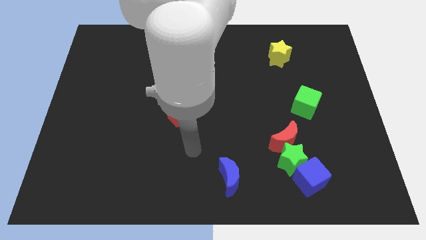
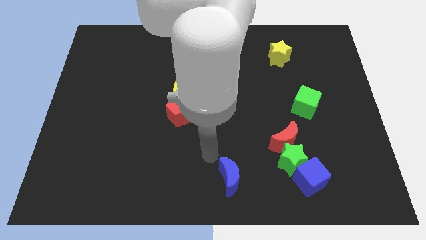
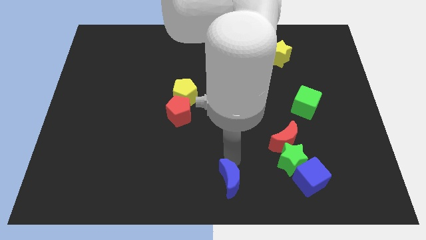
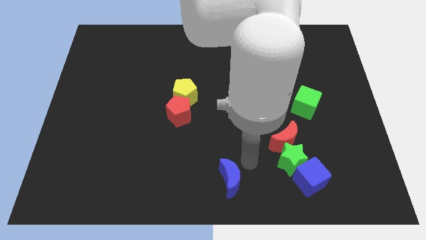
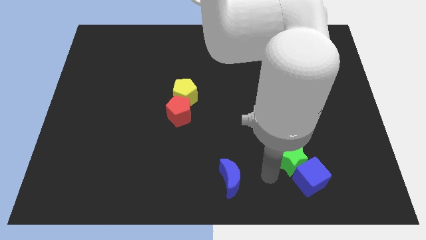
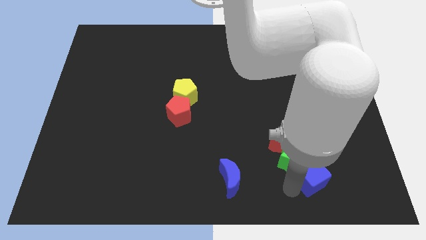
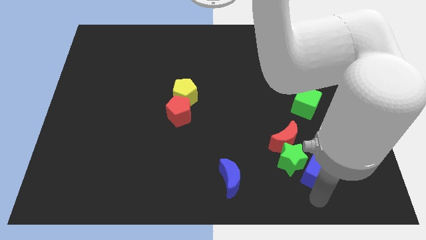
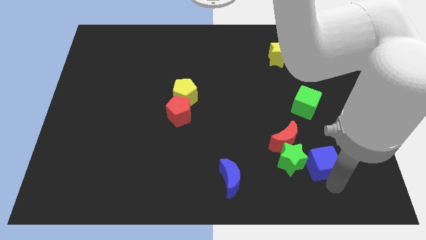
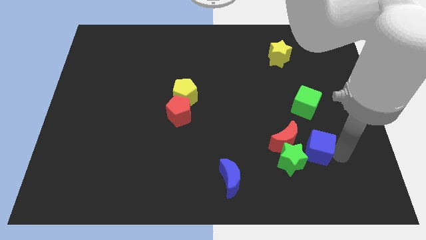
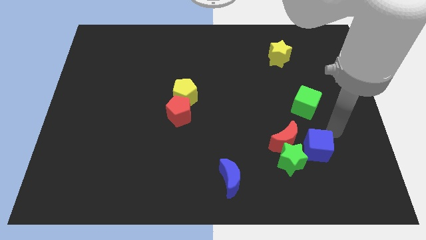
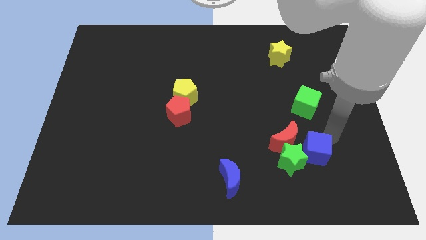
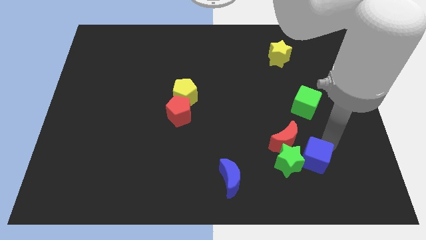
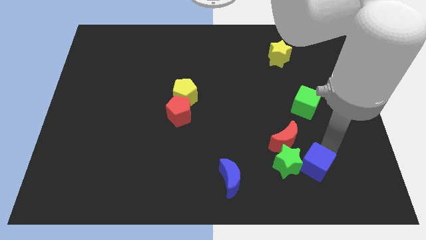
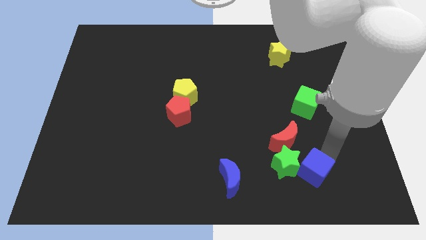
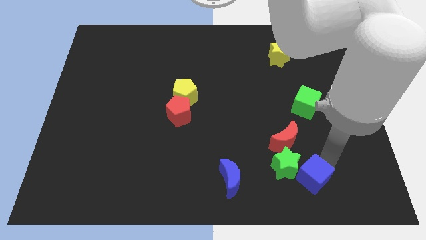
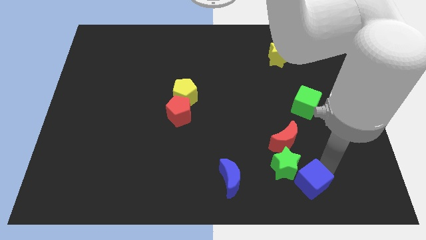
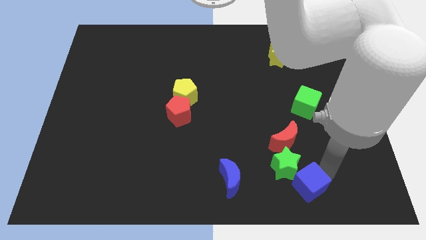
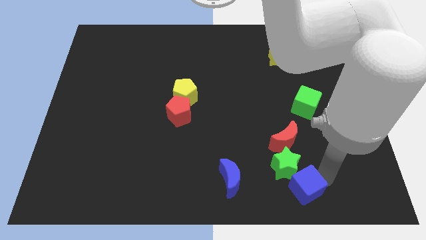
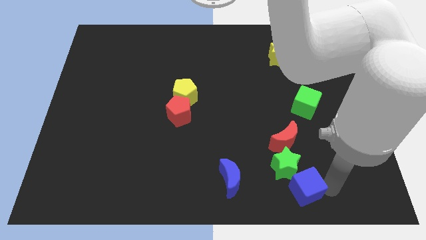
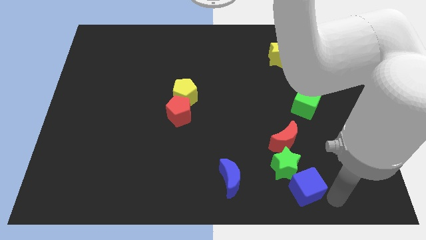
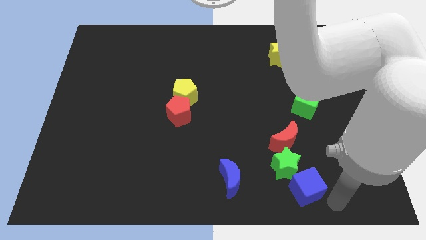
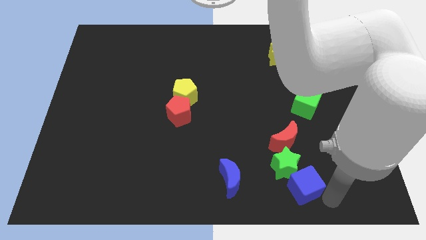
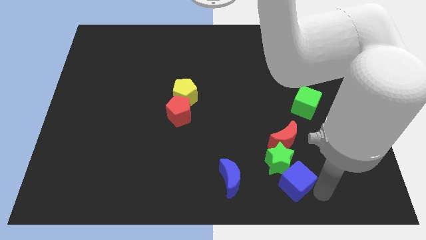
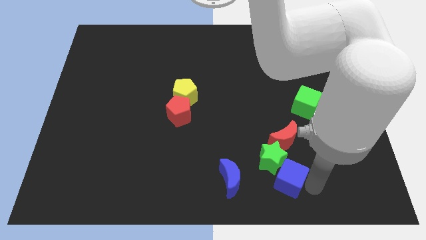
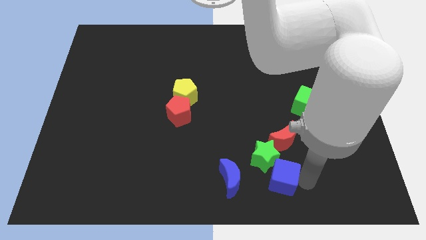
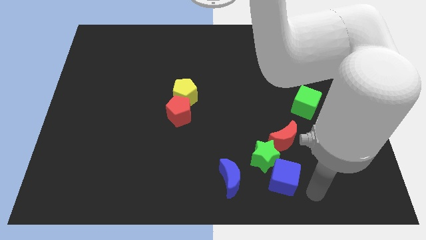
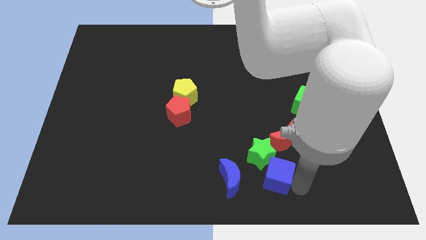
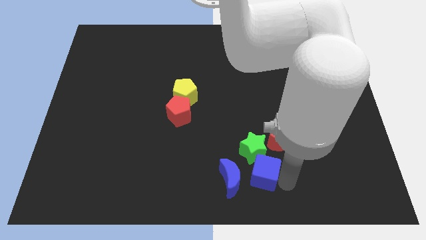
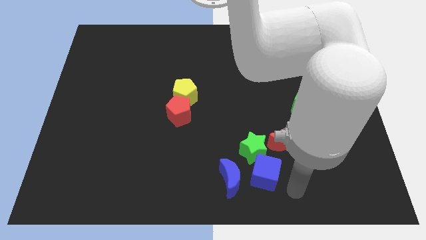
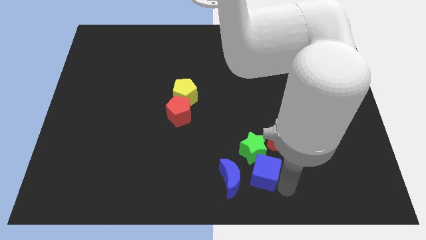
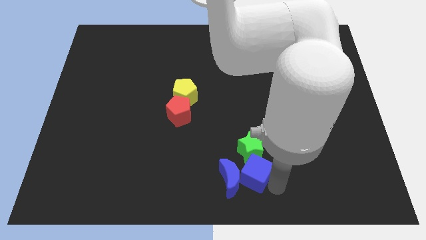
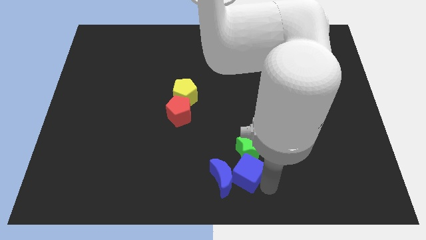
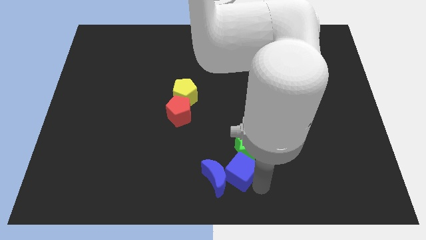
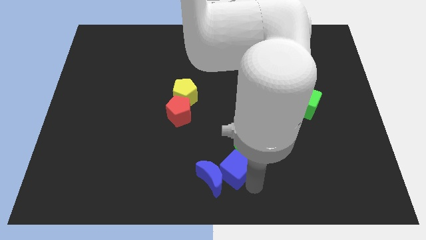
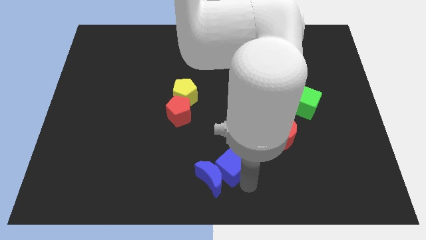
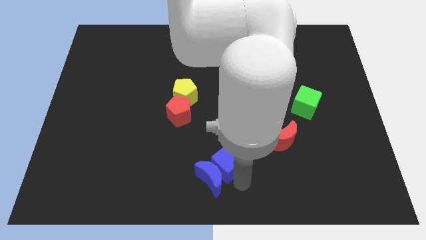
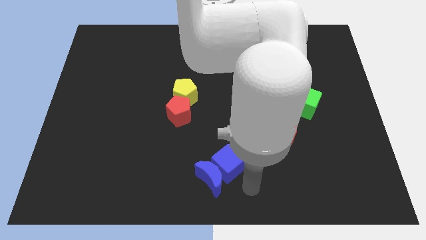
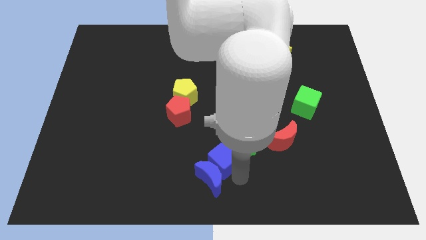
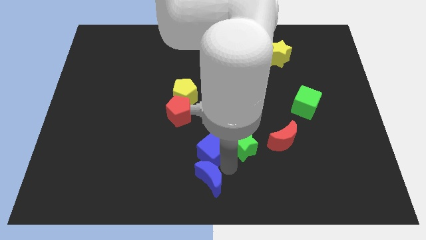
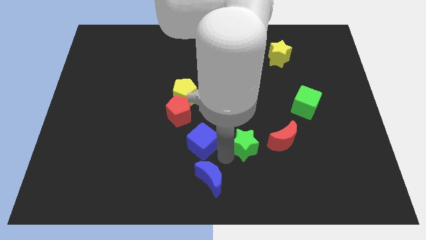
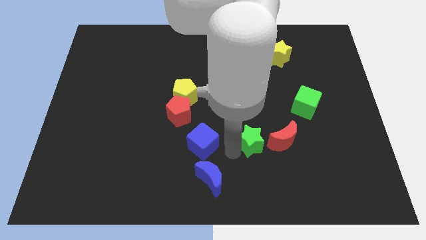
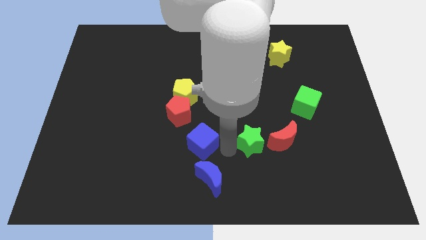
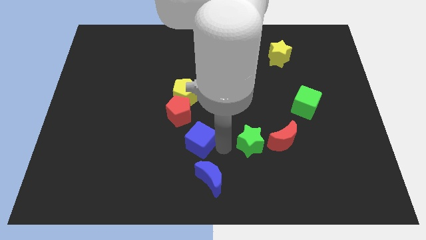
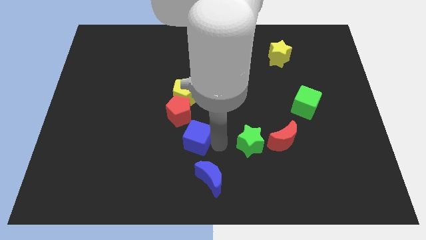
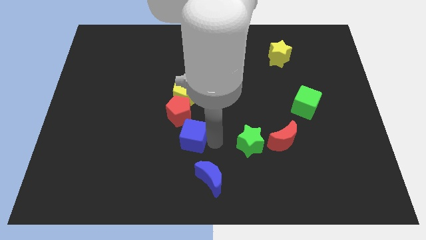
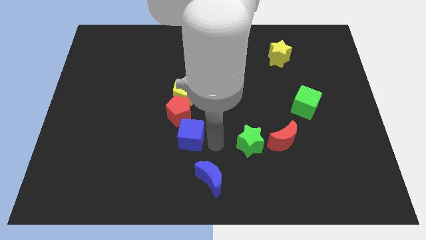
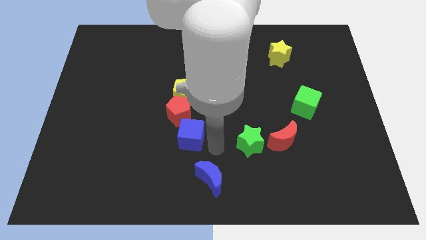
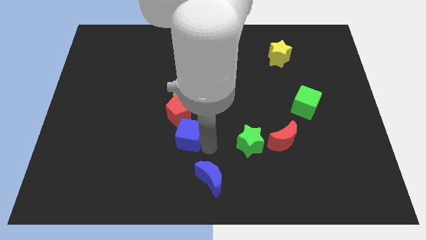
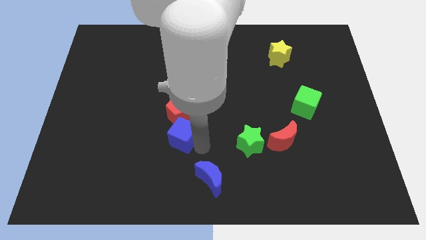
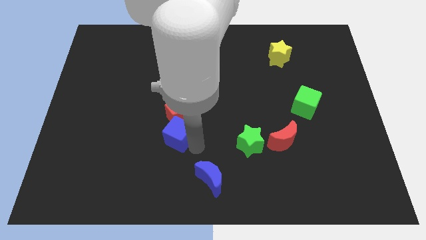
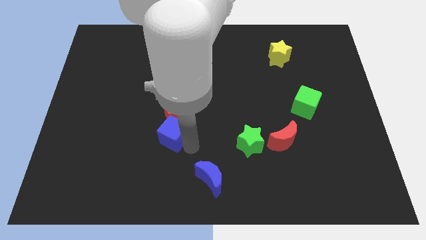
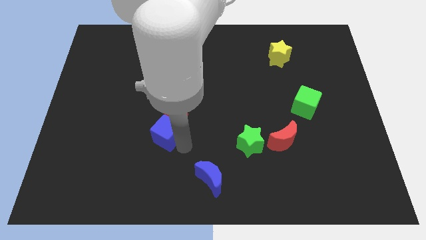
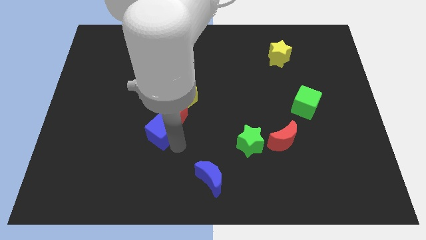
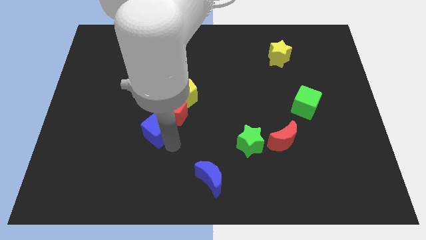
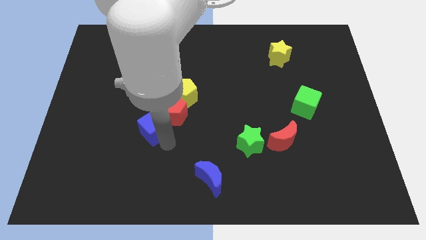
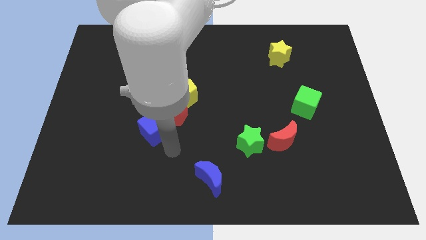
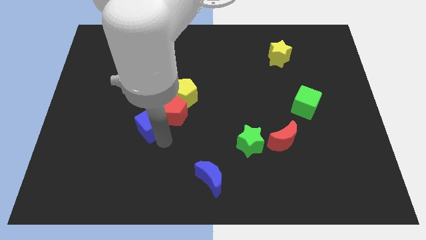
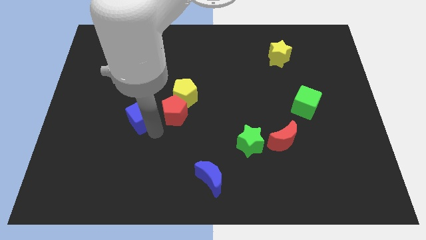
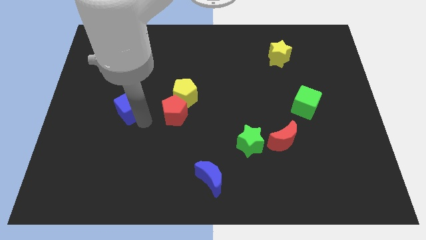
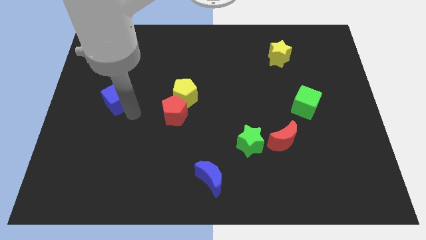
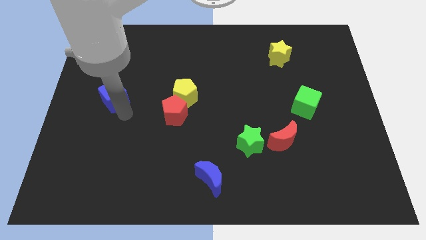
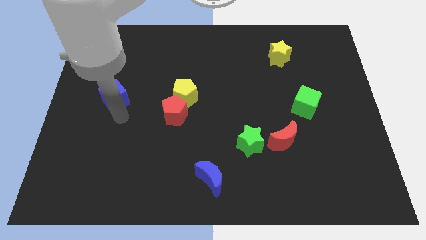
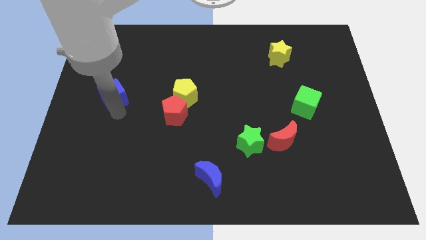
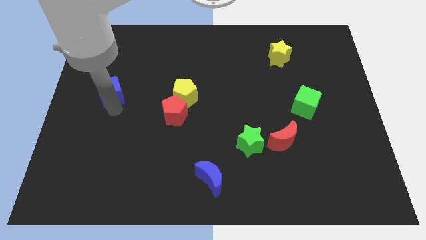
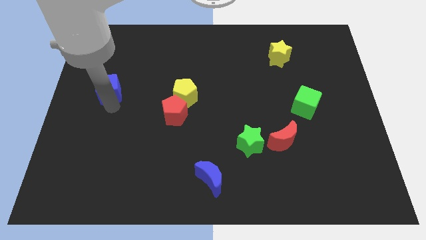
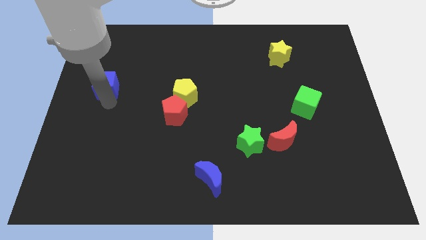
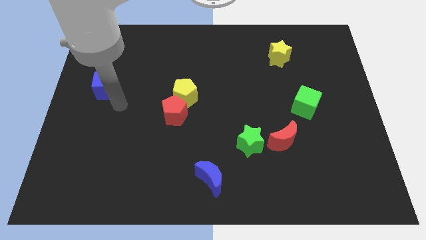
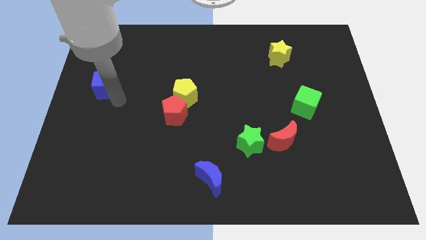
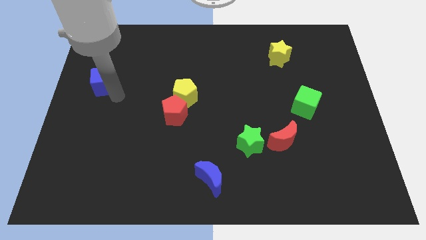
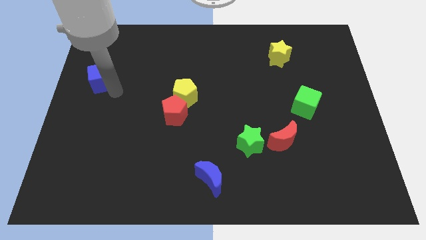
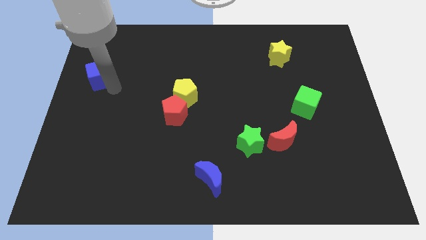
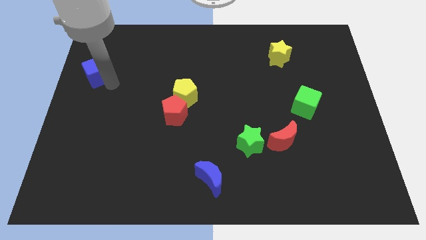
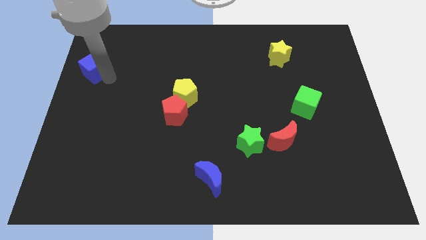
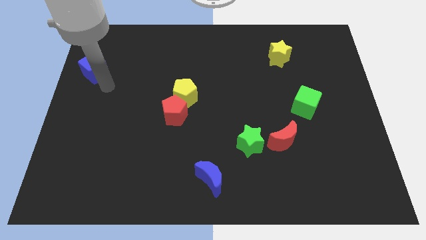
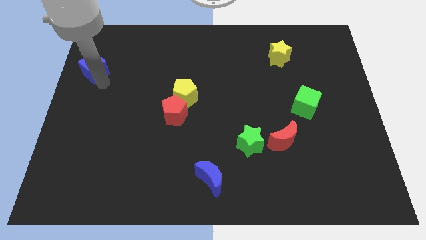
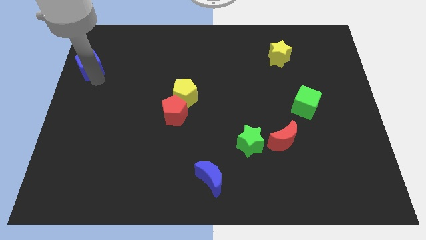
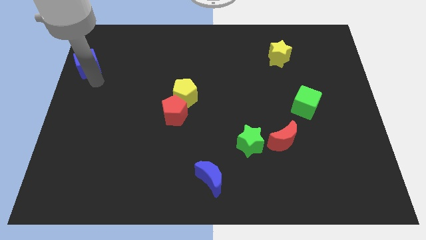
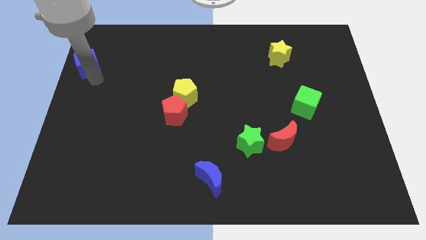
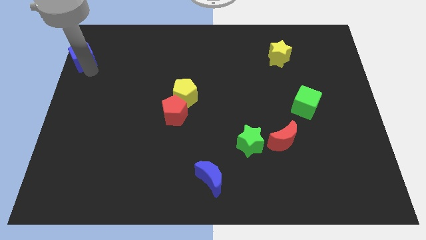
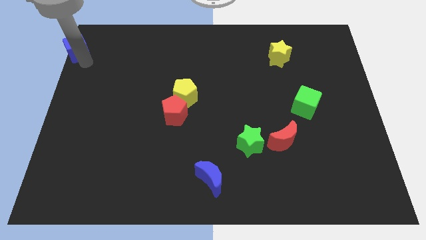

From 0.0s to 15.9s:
put the blue cube to the top left
